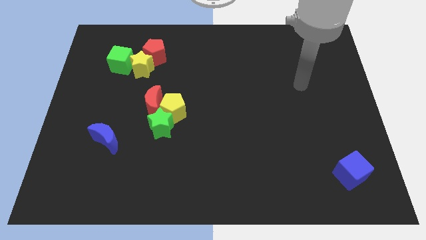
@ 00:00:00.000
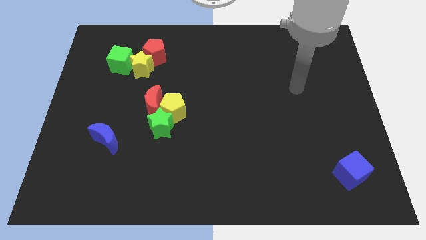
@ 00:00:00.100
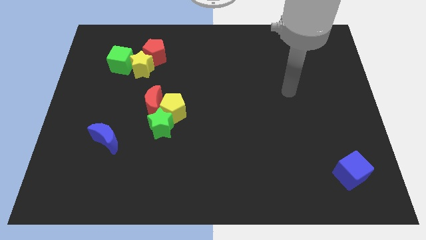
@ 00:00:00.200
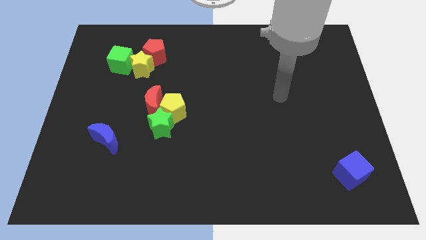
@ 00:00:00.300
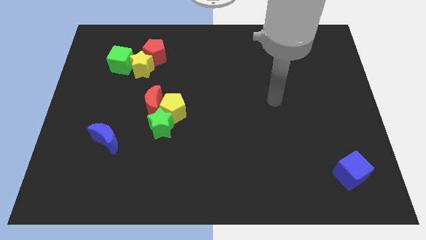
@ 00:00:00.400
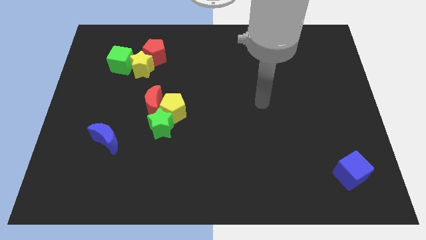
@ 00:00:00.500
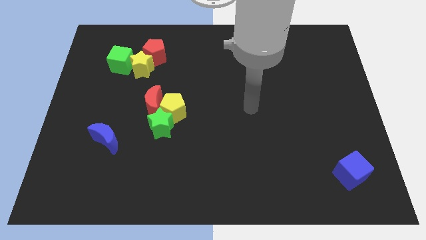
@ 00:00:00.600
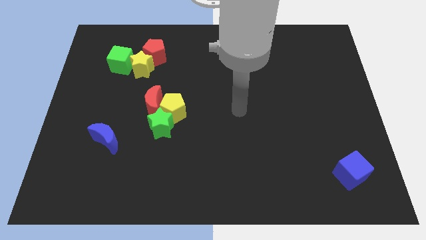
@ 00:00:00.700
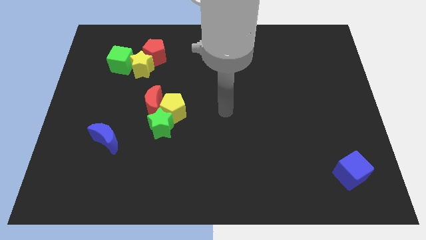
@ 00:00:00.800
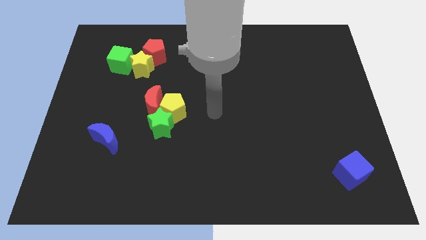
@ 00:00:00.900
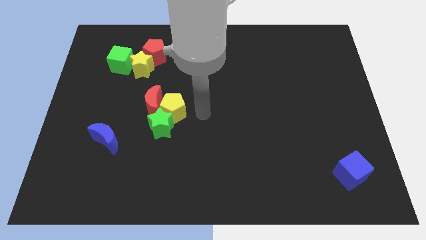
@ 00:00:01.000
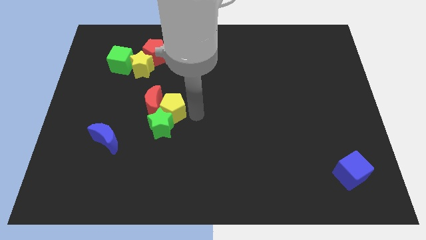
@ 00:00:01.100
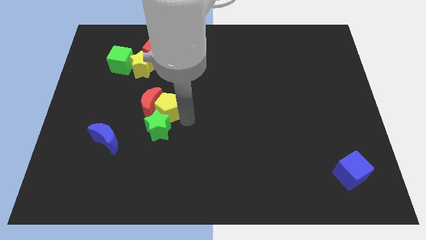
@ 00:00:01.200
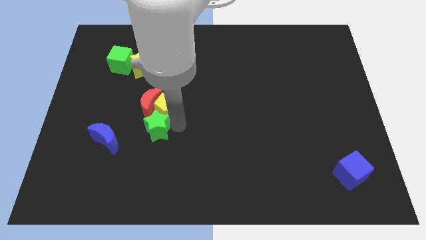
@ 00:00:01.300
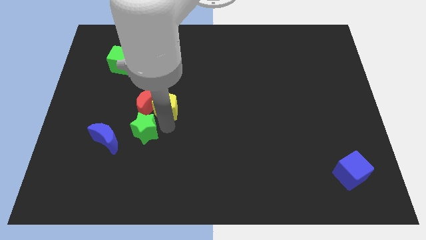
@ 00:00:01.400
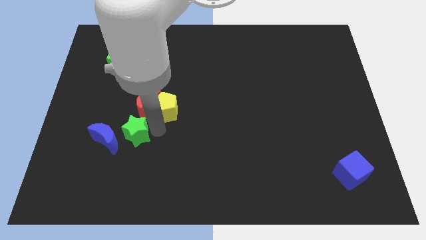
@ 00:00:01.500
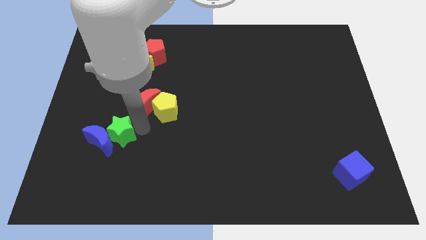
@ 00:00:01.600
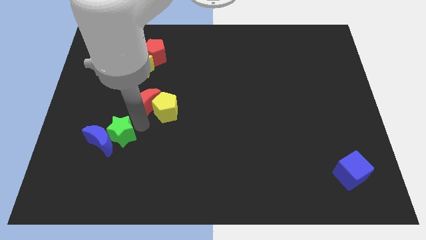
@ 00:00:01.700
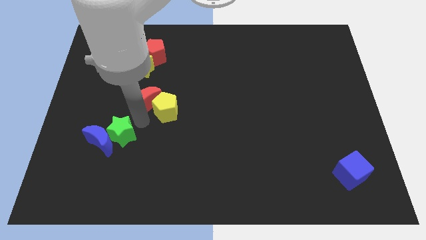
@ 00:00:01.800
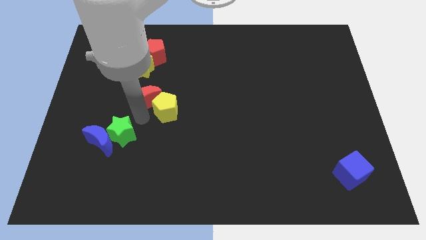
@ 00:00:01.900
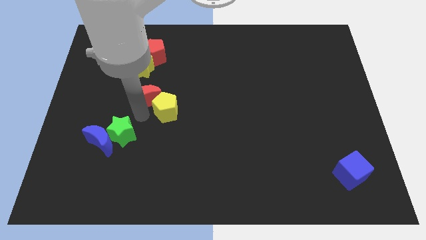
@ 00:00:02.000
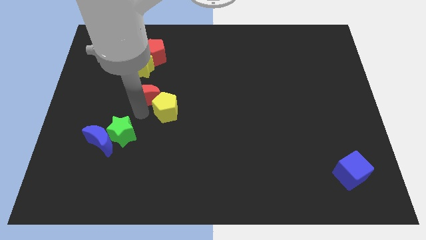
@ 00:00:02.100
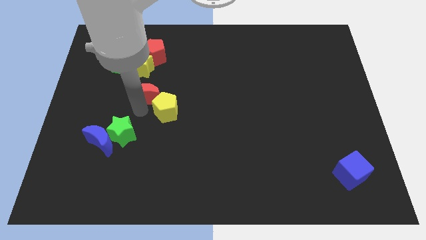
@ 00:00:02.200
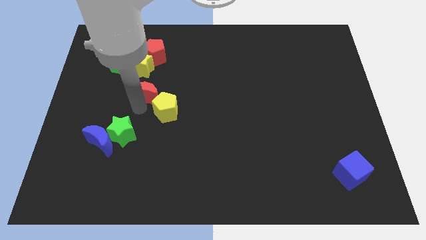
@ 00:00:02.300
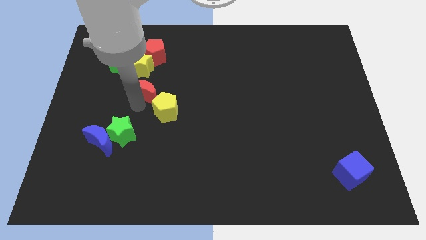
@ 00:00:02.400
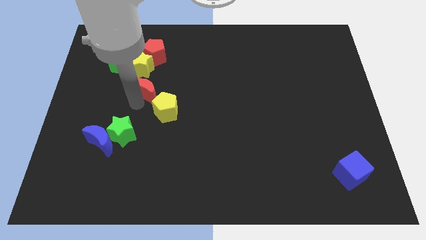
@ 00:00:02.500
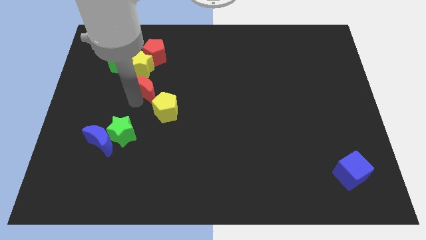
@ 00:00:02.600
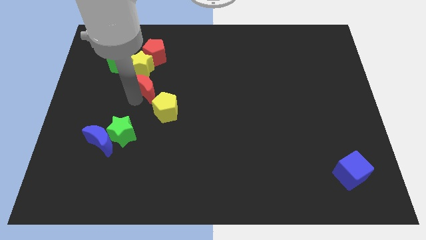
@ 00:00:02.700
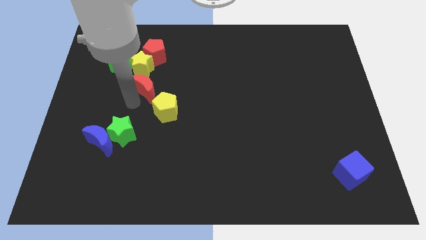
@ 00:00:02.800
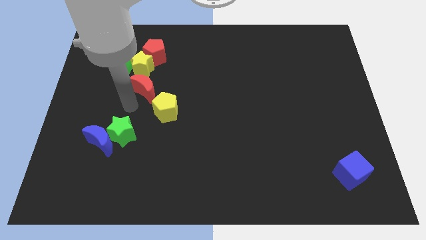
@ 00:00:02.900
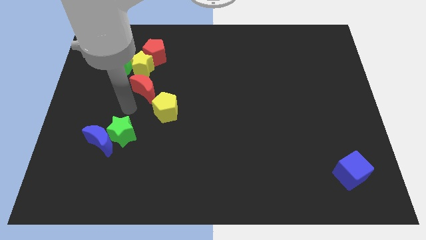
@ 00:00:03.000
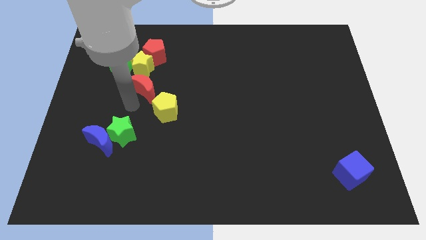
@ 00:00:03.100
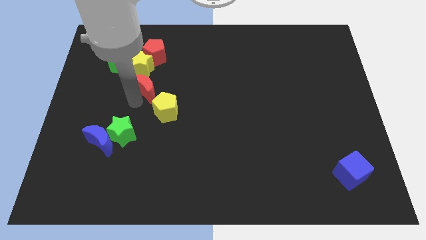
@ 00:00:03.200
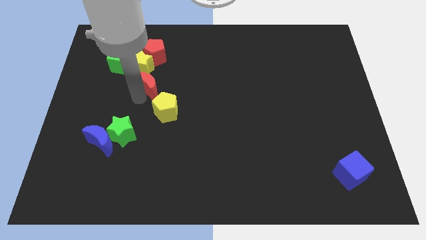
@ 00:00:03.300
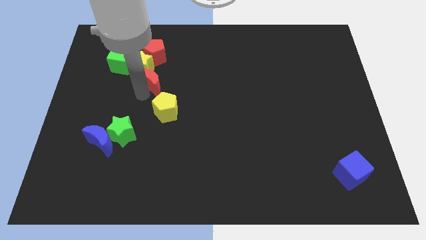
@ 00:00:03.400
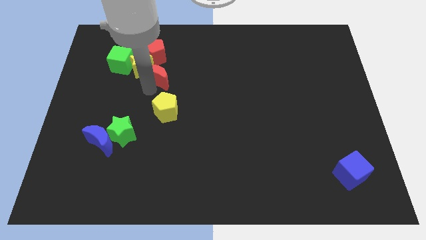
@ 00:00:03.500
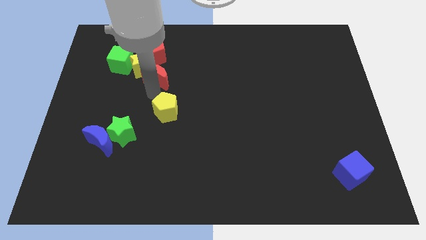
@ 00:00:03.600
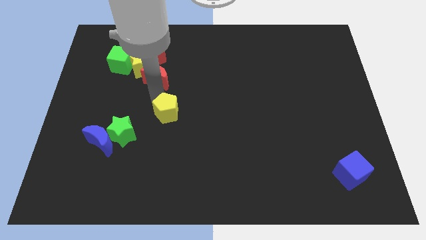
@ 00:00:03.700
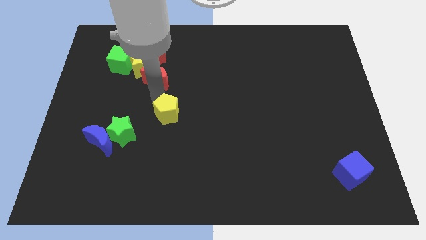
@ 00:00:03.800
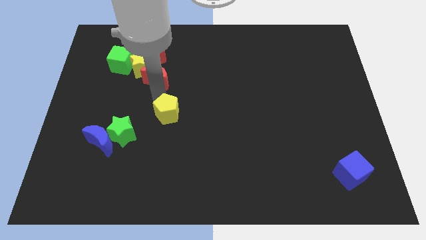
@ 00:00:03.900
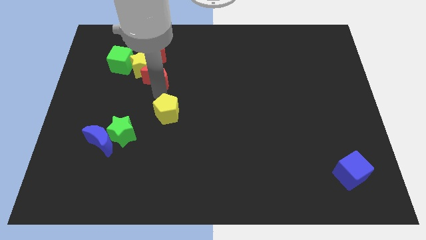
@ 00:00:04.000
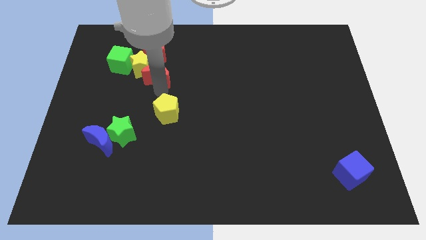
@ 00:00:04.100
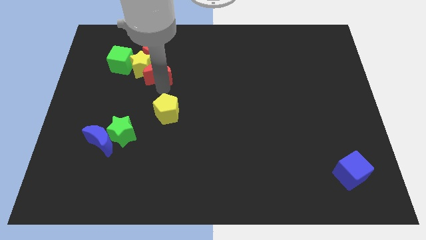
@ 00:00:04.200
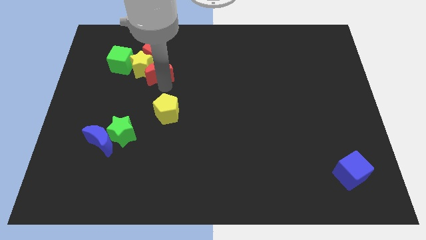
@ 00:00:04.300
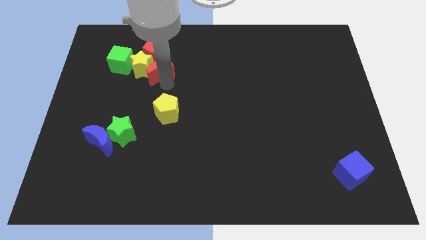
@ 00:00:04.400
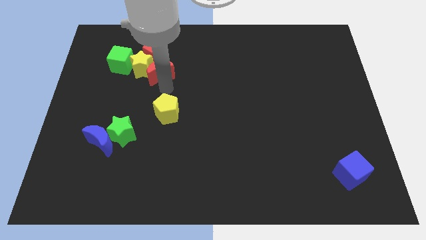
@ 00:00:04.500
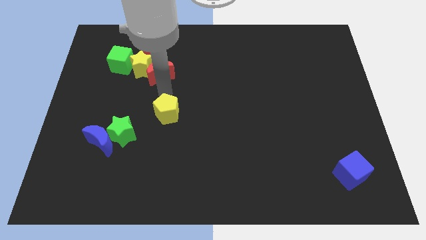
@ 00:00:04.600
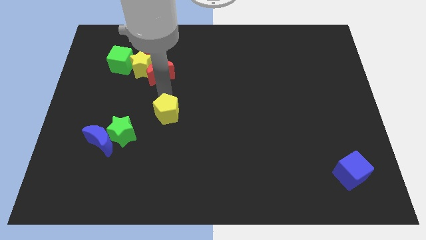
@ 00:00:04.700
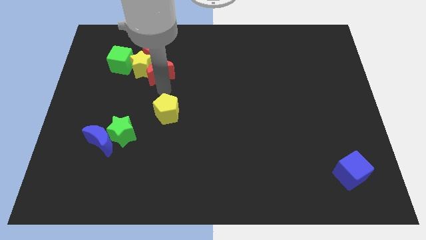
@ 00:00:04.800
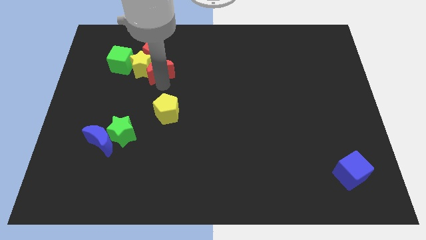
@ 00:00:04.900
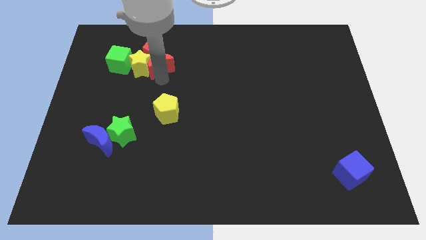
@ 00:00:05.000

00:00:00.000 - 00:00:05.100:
push the red moon towards the red pentagon
